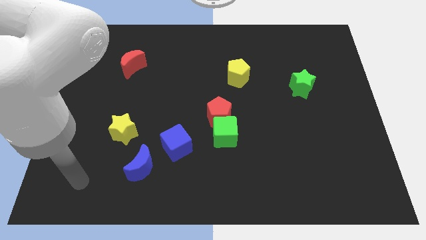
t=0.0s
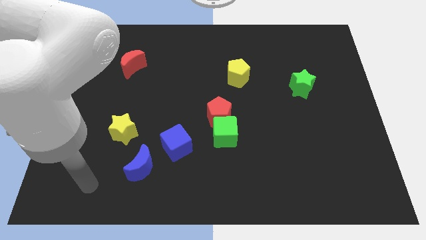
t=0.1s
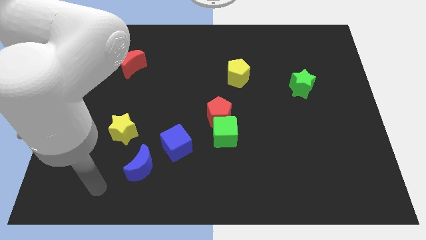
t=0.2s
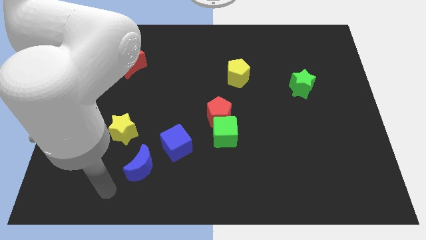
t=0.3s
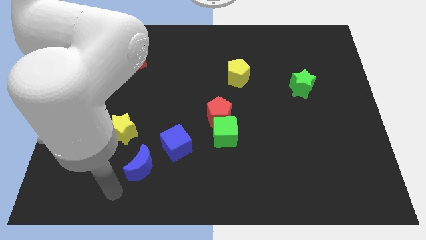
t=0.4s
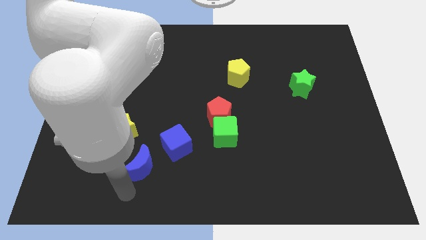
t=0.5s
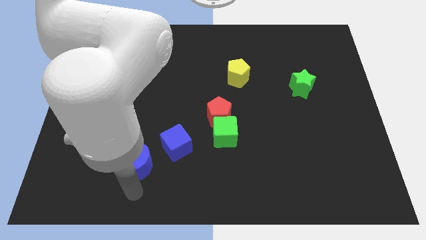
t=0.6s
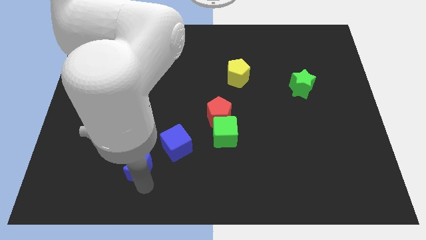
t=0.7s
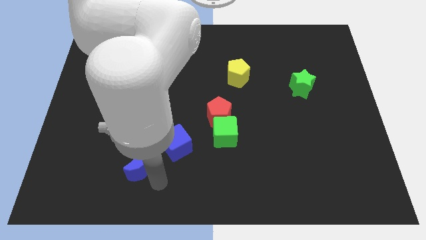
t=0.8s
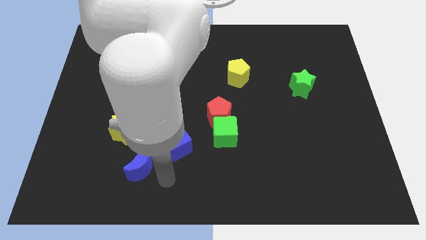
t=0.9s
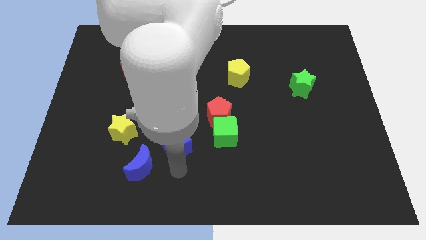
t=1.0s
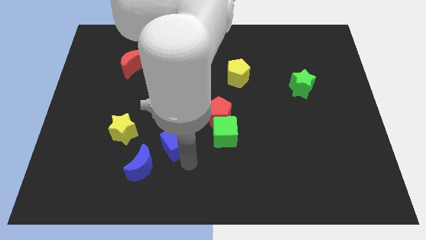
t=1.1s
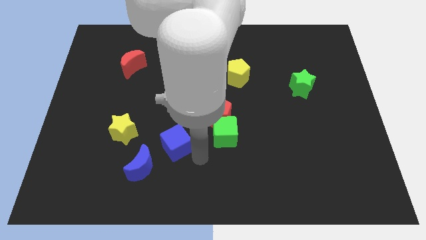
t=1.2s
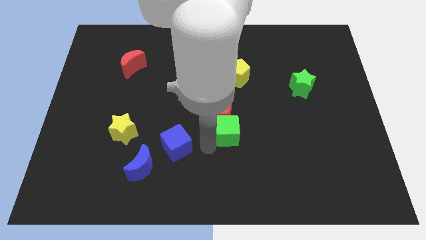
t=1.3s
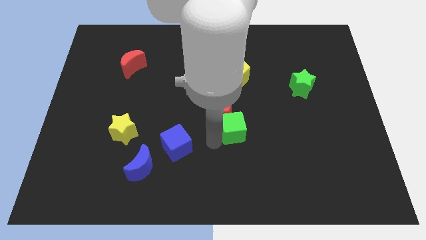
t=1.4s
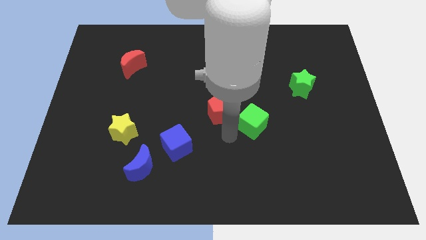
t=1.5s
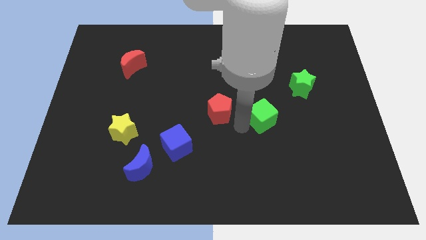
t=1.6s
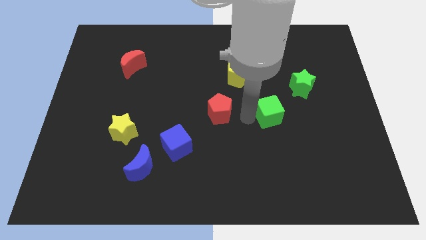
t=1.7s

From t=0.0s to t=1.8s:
pull the red pentagon apart from the green cube

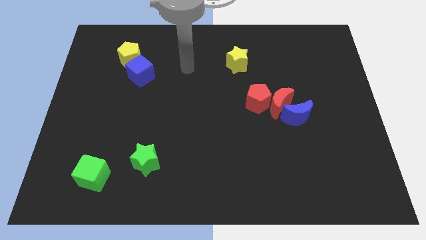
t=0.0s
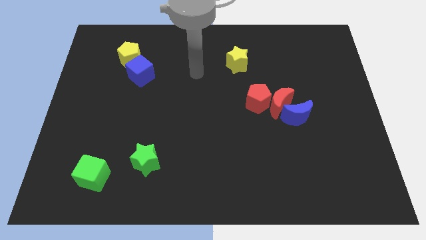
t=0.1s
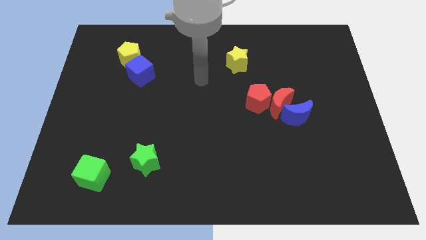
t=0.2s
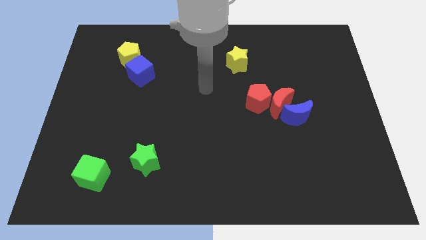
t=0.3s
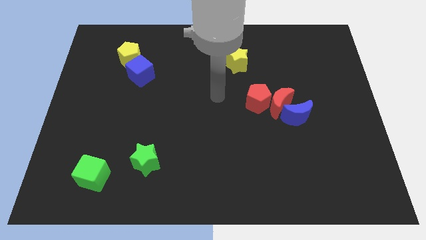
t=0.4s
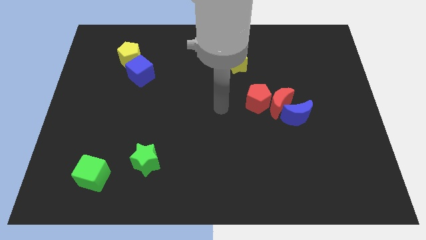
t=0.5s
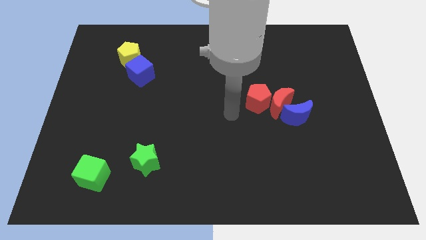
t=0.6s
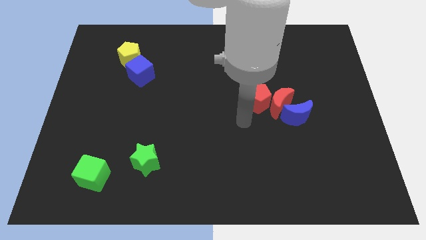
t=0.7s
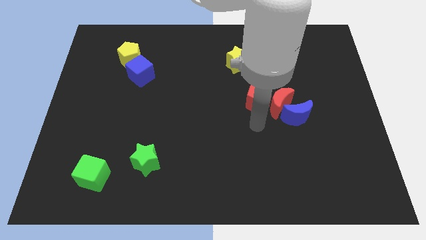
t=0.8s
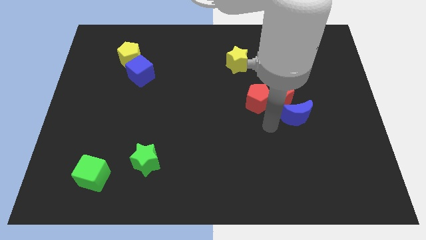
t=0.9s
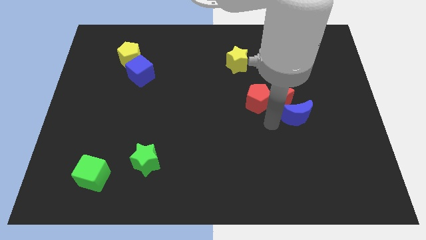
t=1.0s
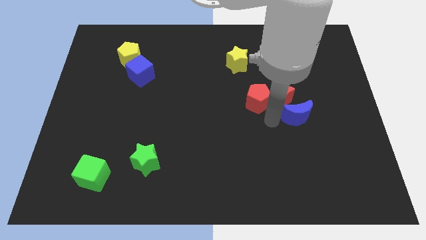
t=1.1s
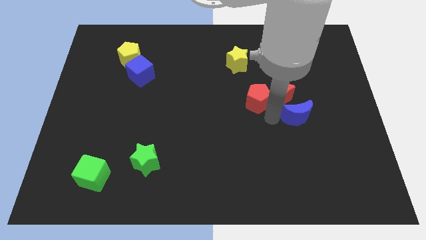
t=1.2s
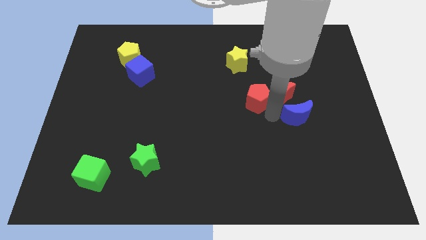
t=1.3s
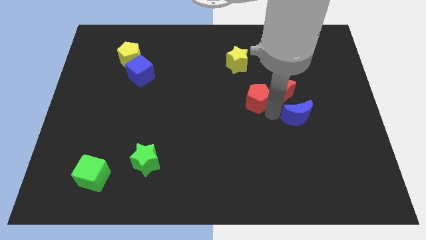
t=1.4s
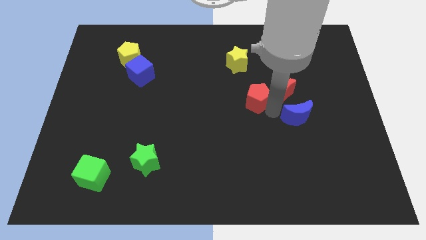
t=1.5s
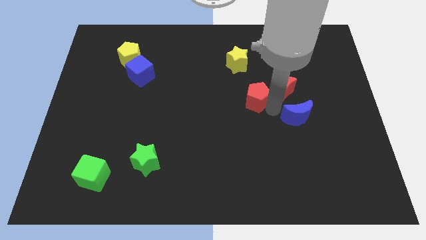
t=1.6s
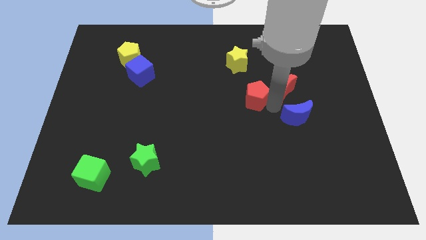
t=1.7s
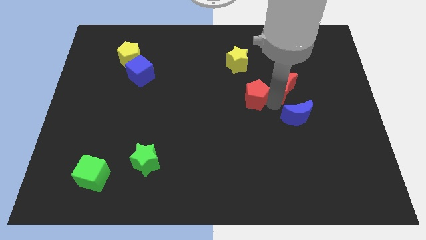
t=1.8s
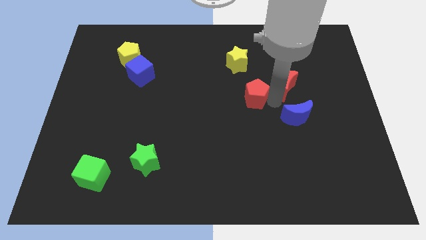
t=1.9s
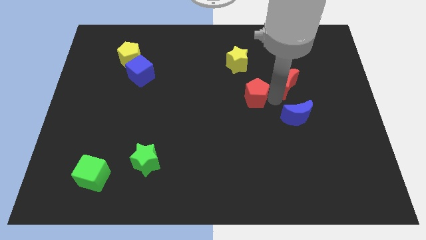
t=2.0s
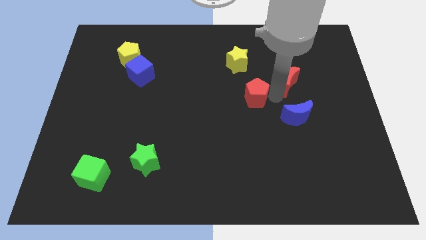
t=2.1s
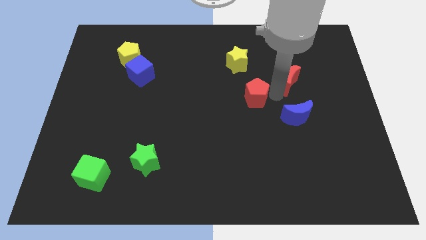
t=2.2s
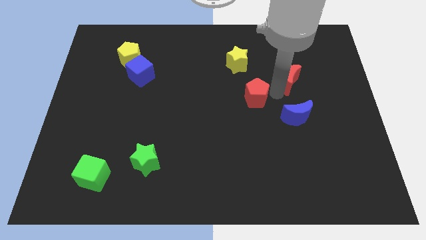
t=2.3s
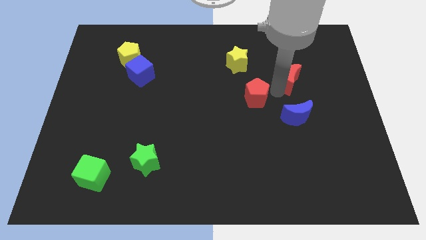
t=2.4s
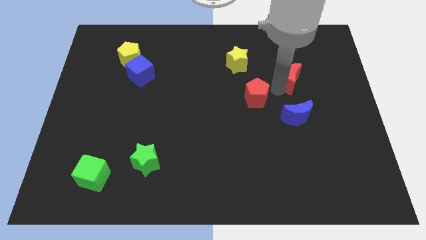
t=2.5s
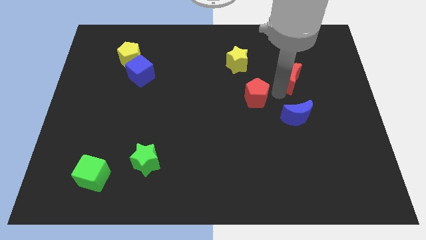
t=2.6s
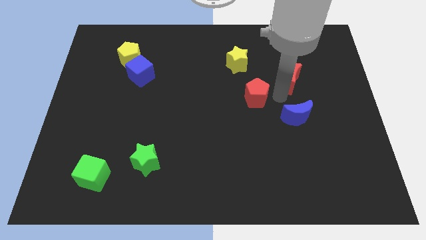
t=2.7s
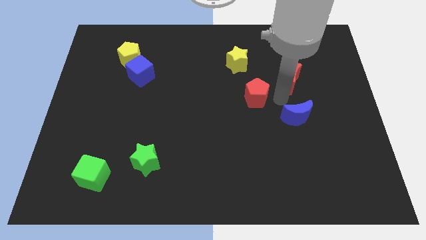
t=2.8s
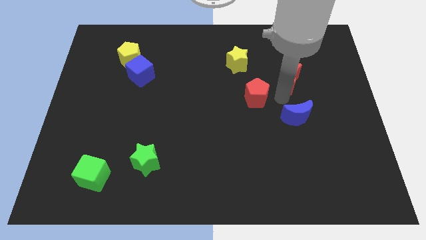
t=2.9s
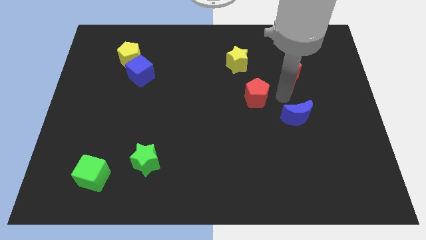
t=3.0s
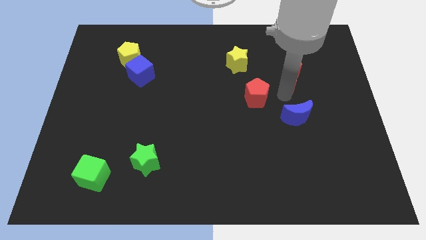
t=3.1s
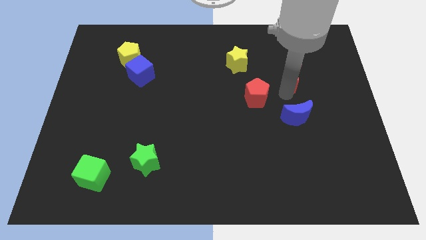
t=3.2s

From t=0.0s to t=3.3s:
separate the red moon from the red pentagon and blue moon

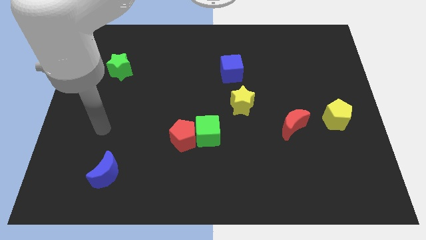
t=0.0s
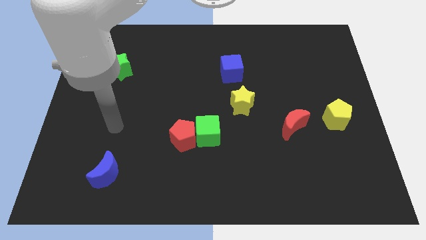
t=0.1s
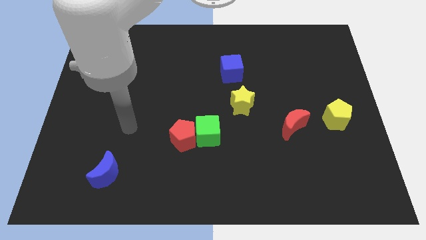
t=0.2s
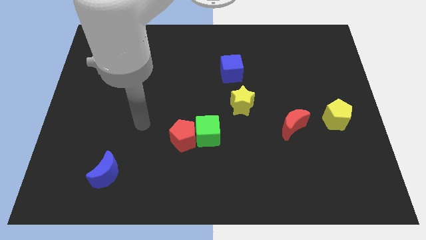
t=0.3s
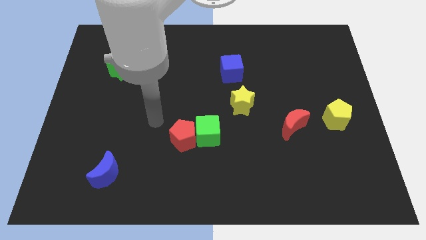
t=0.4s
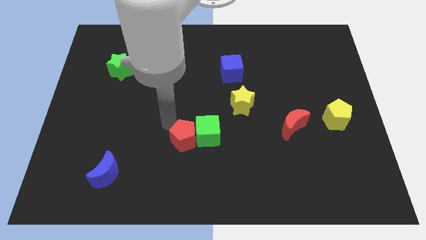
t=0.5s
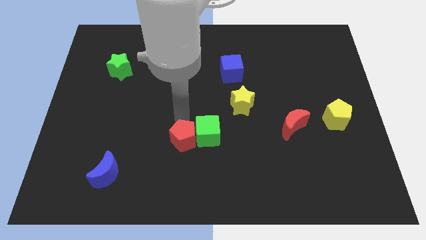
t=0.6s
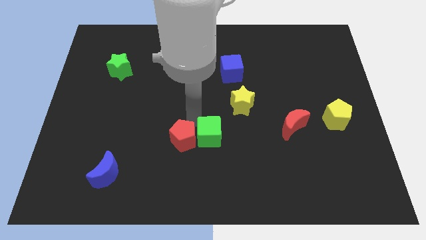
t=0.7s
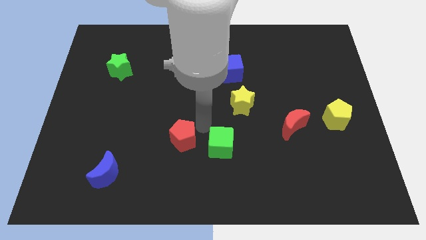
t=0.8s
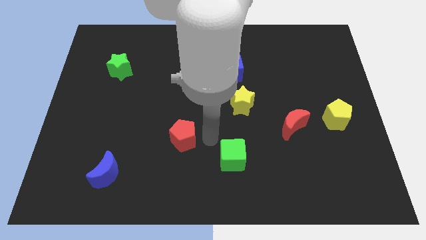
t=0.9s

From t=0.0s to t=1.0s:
separate the red pentagon from the green cube

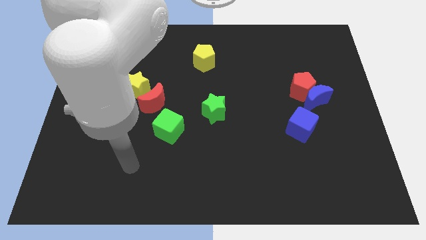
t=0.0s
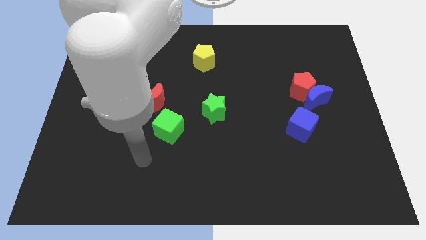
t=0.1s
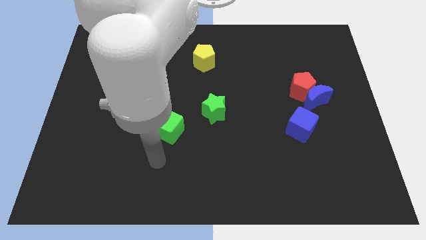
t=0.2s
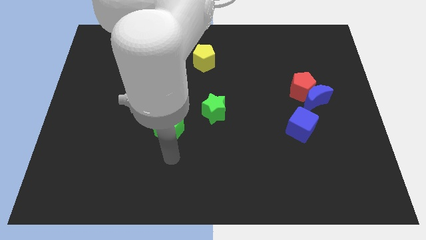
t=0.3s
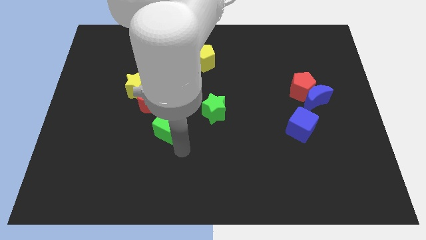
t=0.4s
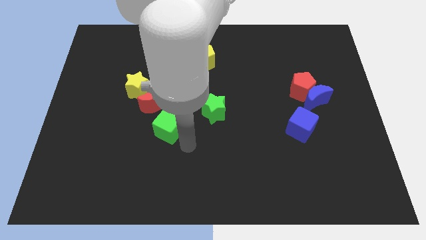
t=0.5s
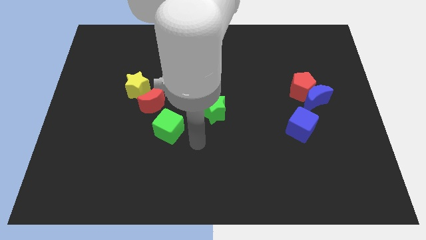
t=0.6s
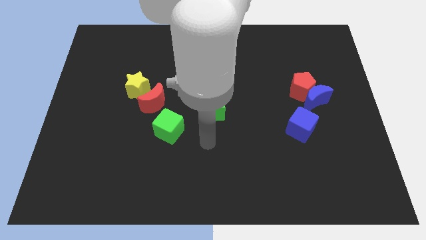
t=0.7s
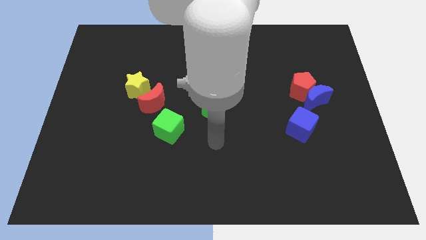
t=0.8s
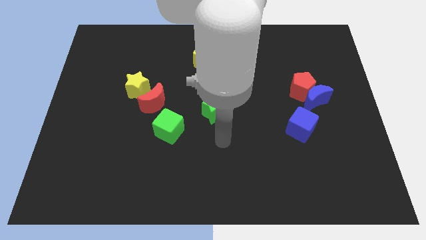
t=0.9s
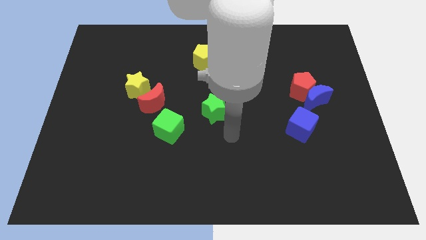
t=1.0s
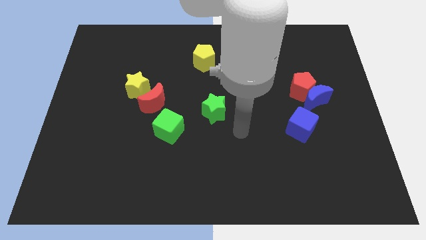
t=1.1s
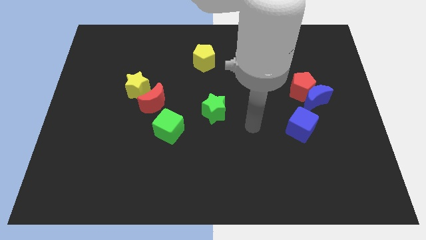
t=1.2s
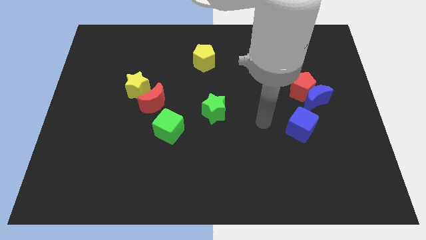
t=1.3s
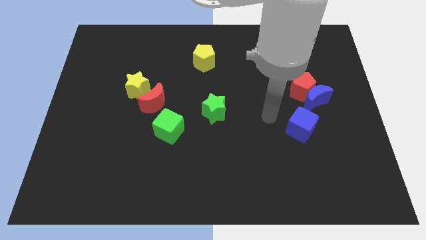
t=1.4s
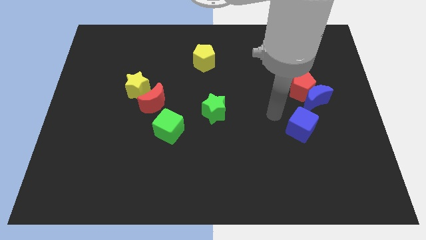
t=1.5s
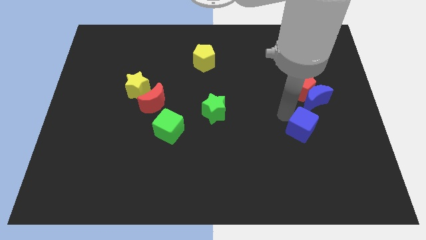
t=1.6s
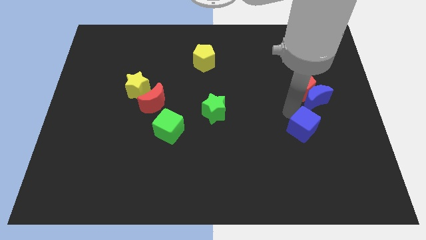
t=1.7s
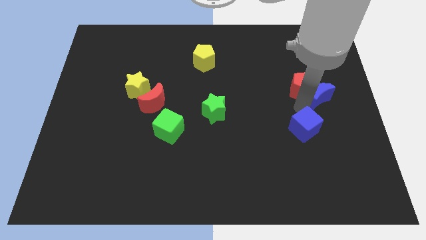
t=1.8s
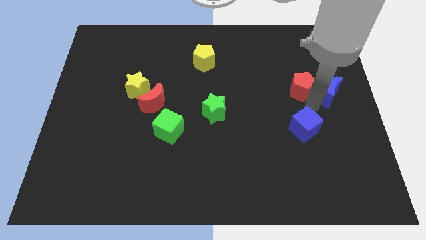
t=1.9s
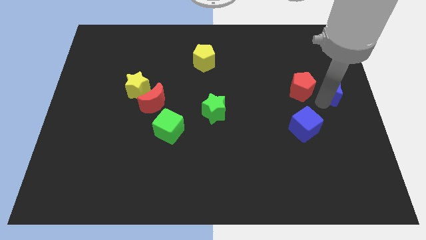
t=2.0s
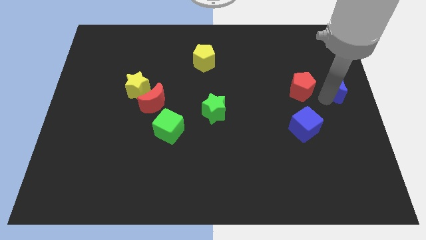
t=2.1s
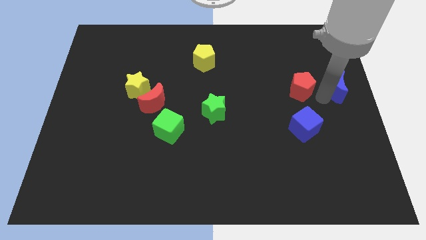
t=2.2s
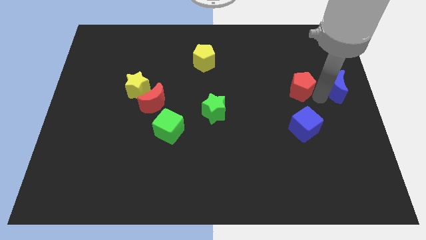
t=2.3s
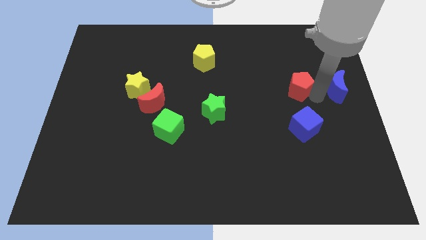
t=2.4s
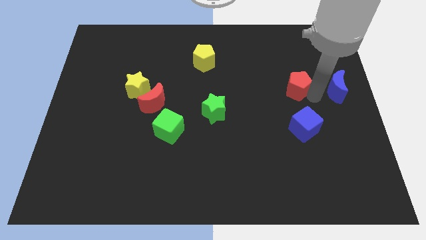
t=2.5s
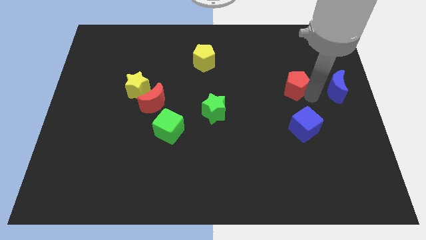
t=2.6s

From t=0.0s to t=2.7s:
pull the red pentagon apart from the blue moon

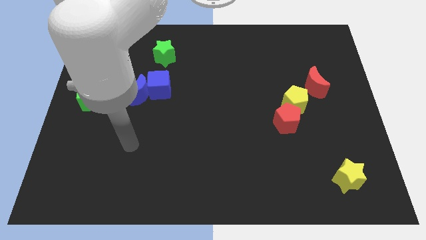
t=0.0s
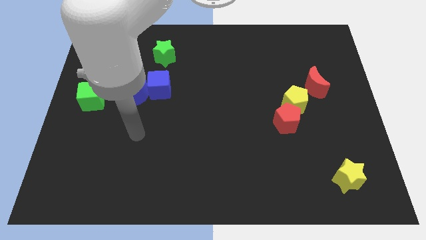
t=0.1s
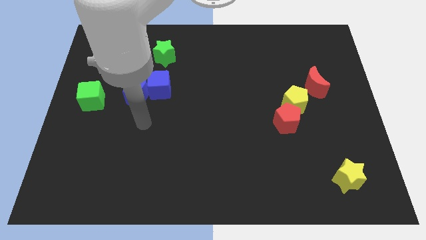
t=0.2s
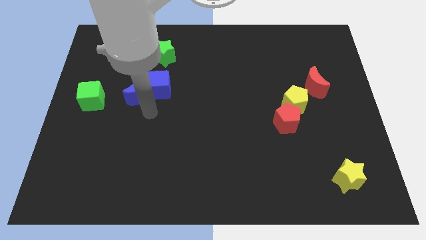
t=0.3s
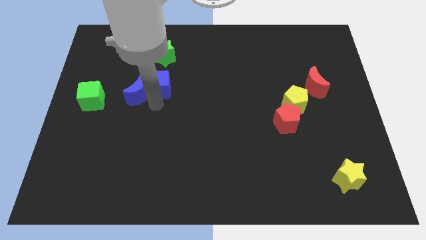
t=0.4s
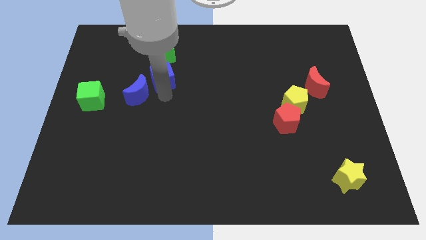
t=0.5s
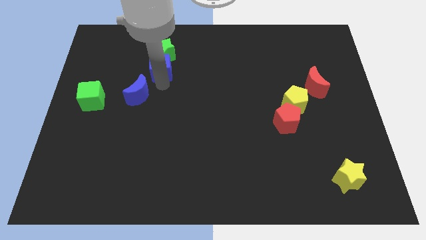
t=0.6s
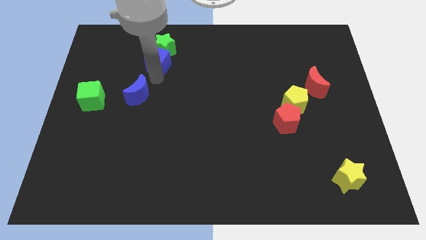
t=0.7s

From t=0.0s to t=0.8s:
move the blue moon away from the blue cube
